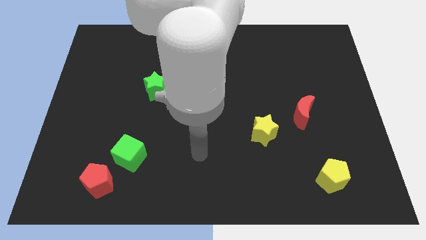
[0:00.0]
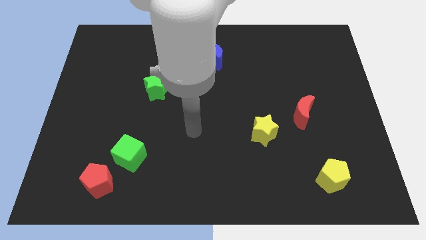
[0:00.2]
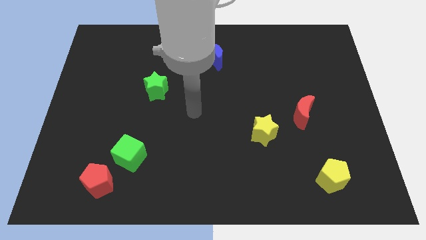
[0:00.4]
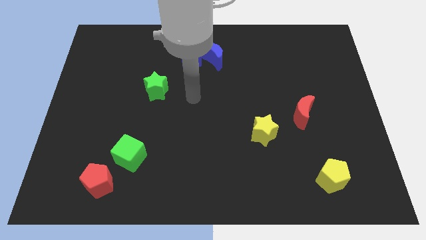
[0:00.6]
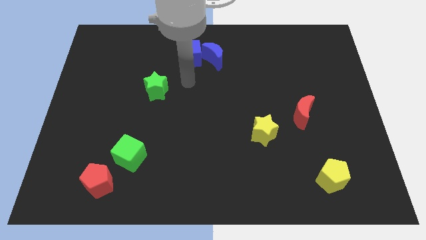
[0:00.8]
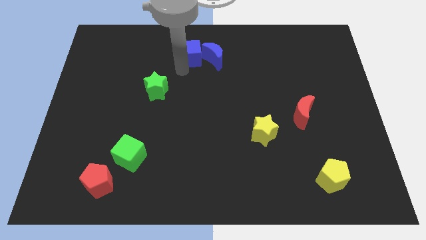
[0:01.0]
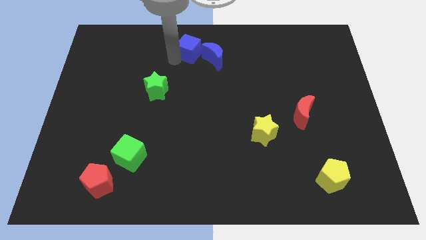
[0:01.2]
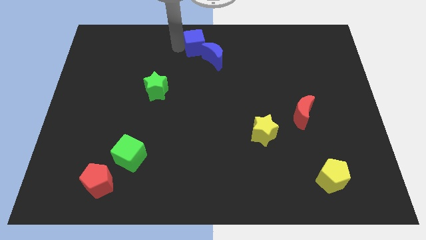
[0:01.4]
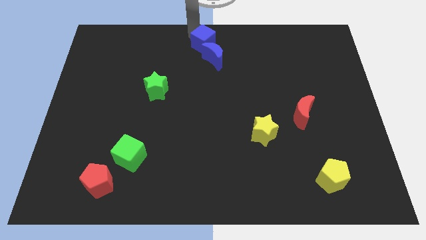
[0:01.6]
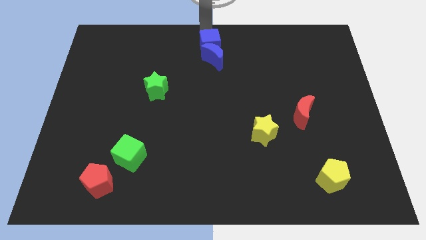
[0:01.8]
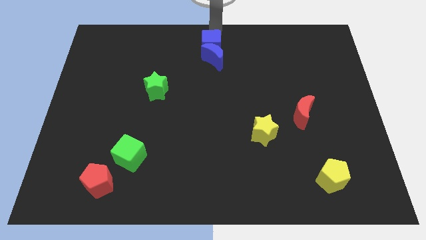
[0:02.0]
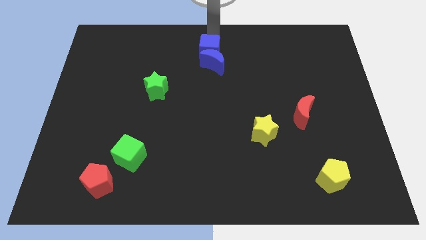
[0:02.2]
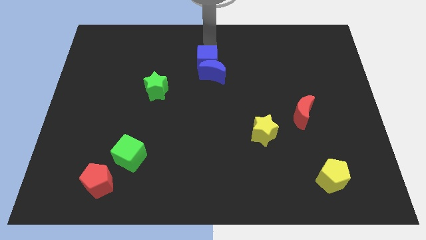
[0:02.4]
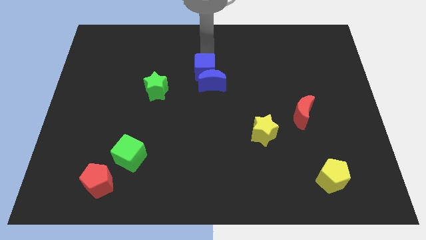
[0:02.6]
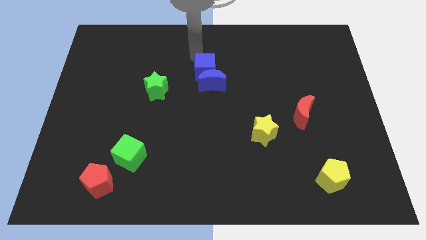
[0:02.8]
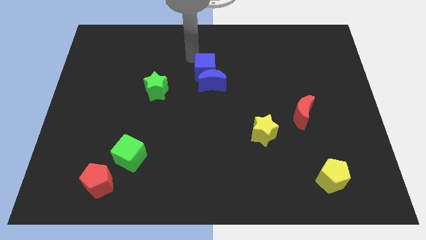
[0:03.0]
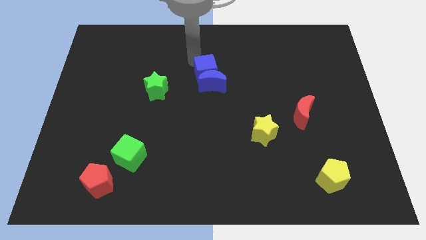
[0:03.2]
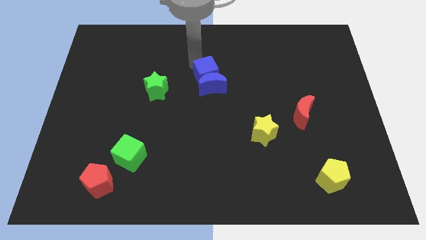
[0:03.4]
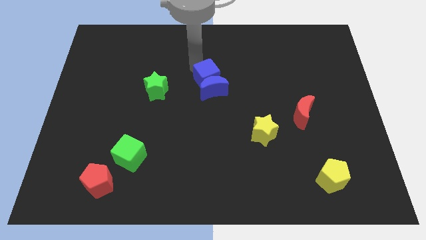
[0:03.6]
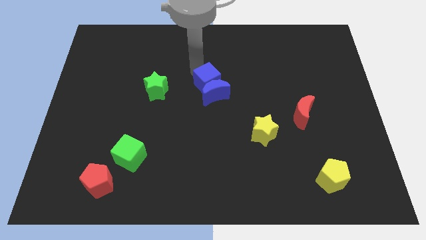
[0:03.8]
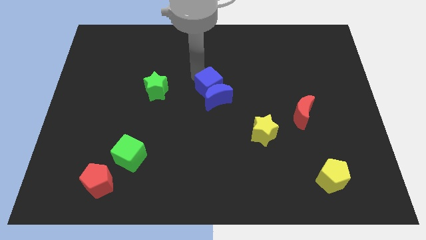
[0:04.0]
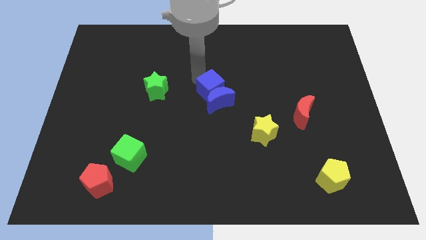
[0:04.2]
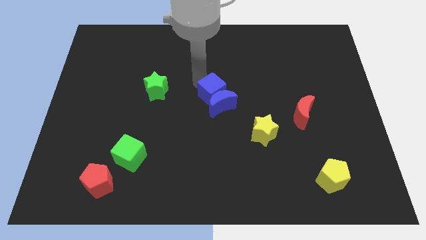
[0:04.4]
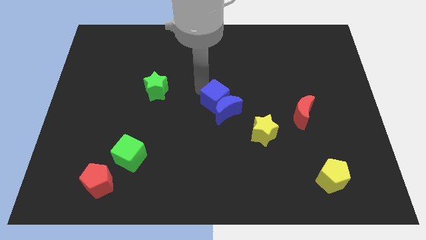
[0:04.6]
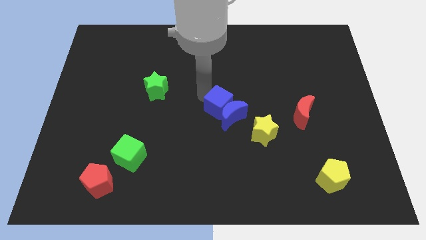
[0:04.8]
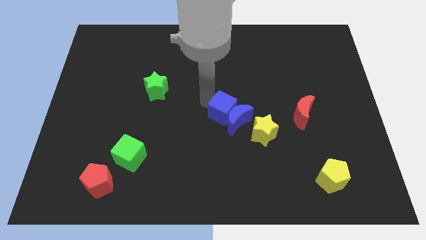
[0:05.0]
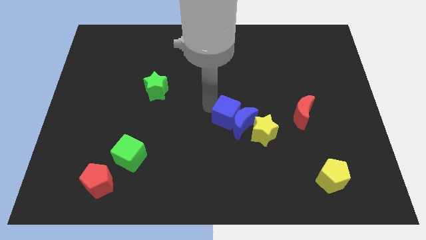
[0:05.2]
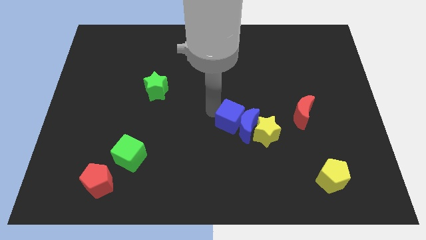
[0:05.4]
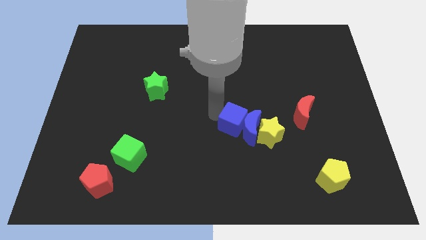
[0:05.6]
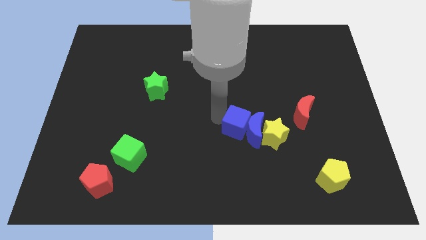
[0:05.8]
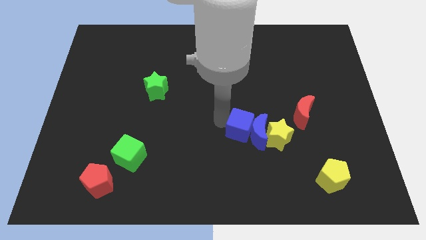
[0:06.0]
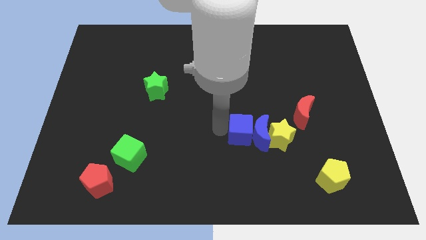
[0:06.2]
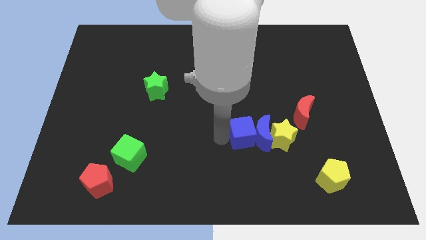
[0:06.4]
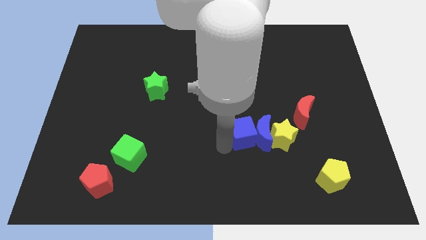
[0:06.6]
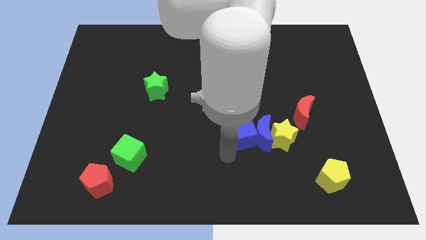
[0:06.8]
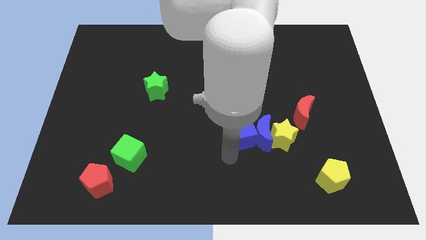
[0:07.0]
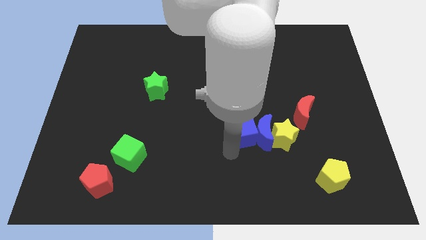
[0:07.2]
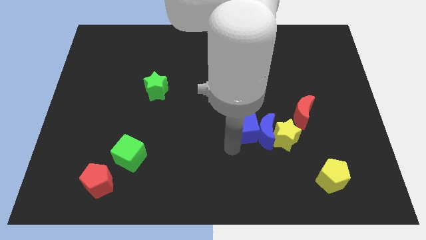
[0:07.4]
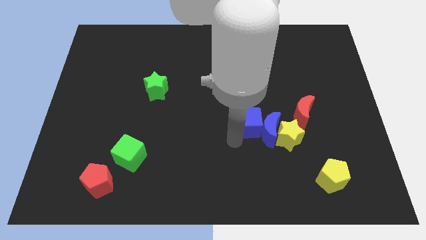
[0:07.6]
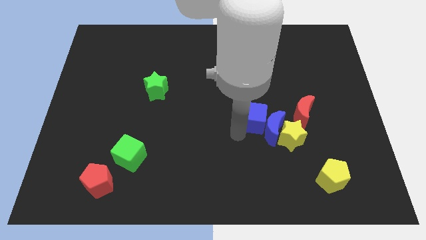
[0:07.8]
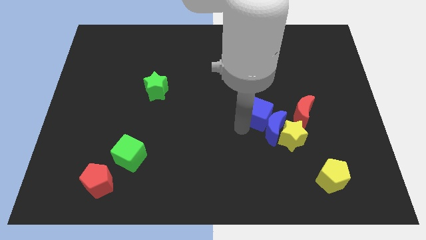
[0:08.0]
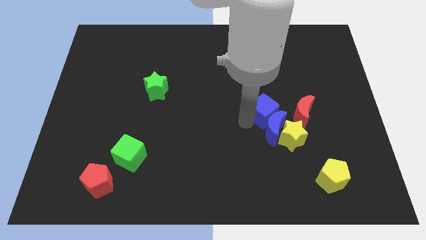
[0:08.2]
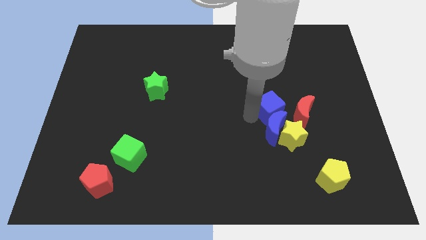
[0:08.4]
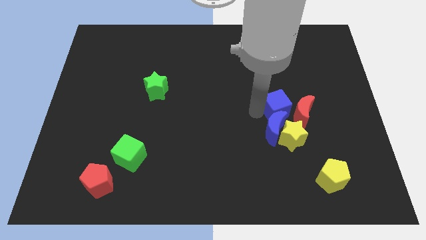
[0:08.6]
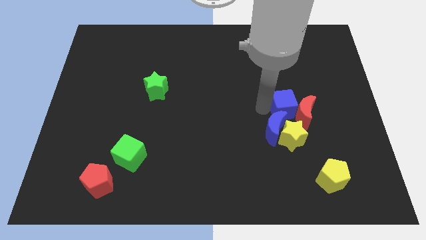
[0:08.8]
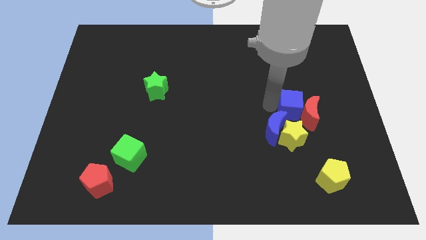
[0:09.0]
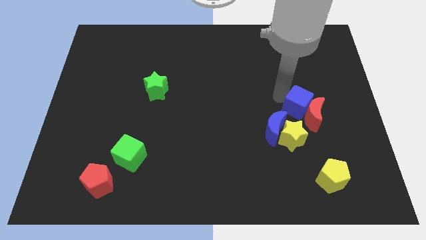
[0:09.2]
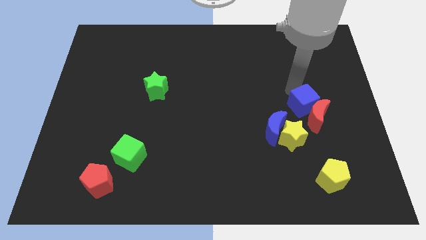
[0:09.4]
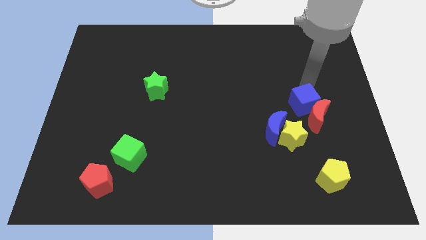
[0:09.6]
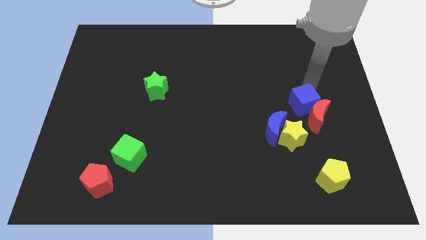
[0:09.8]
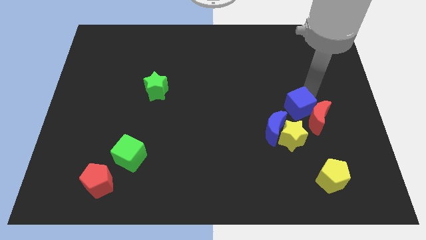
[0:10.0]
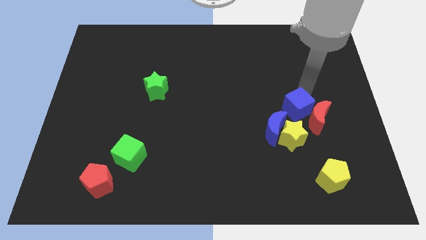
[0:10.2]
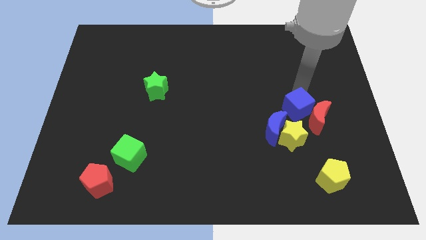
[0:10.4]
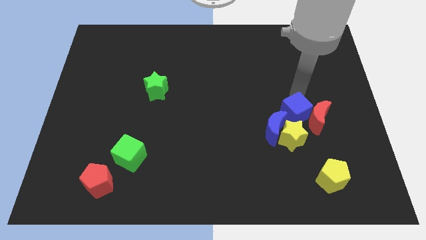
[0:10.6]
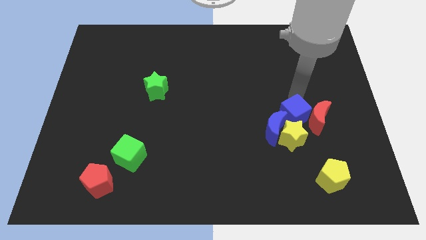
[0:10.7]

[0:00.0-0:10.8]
move the blue cube to the yellow star

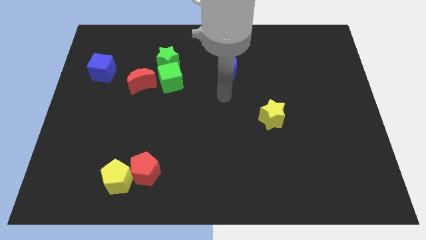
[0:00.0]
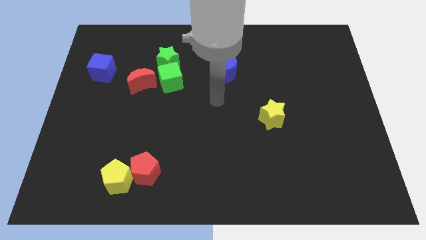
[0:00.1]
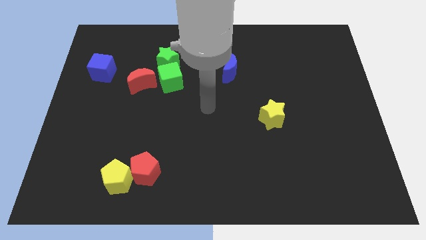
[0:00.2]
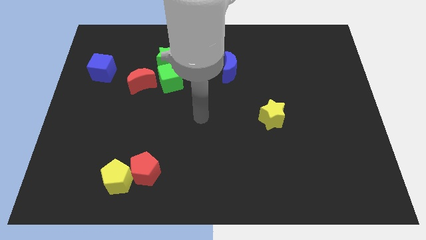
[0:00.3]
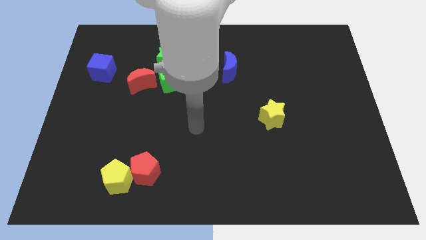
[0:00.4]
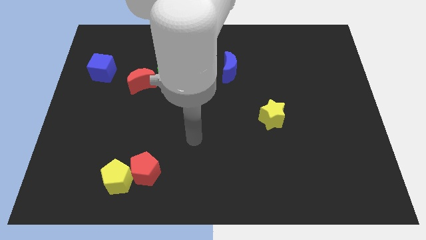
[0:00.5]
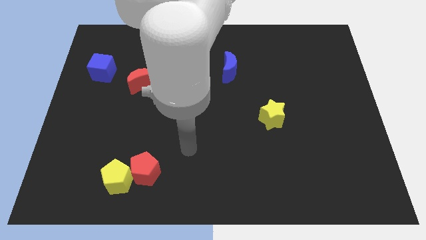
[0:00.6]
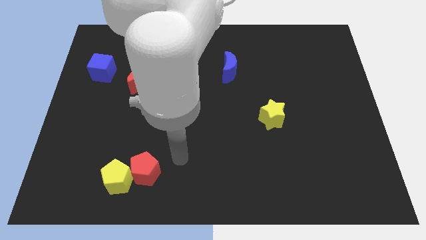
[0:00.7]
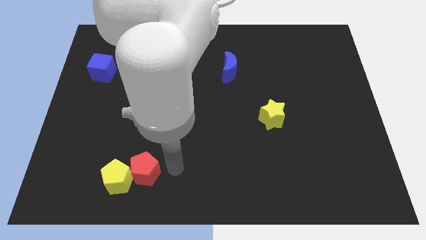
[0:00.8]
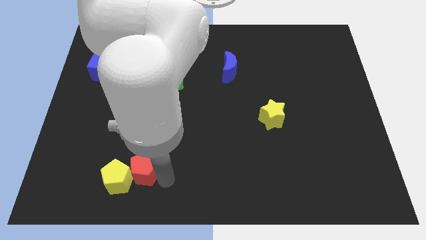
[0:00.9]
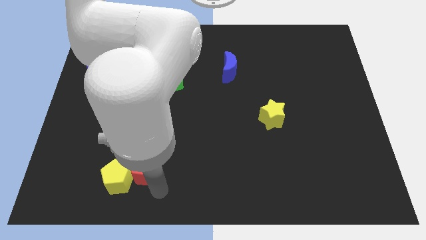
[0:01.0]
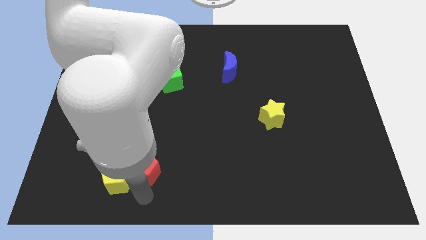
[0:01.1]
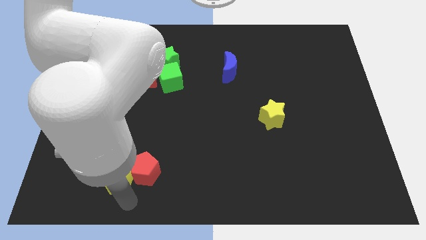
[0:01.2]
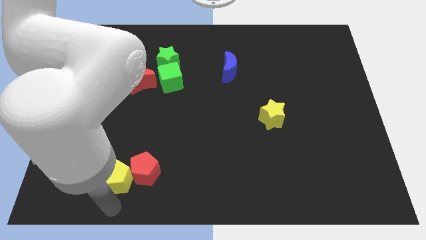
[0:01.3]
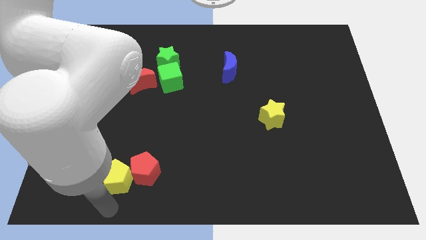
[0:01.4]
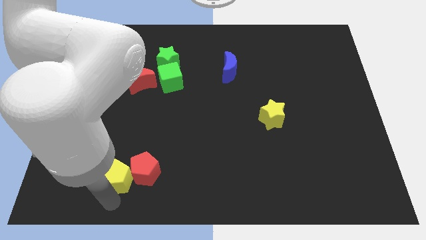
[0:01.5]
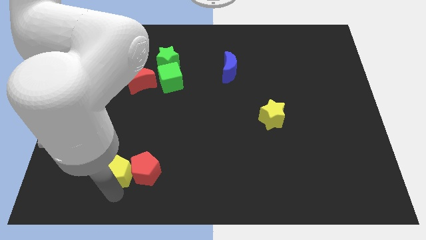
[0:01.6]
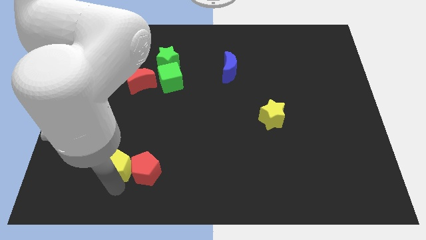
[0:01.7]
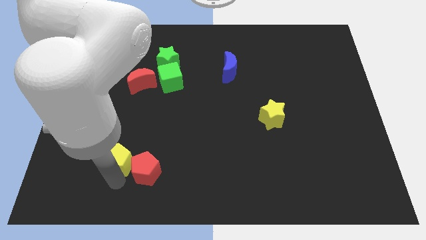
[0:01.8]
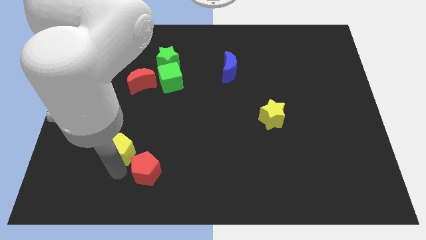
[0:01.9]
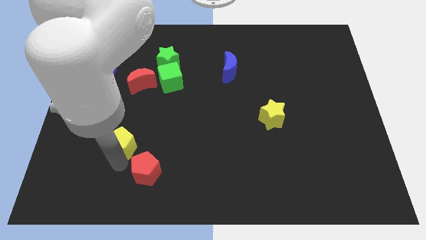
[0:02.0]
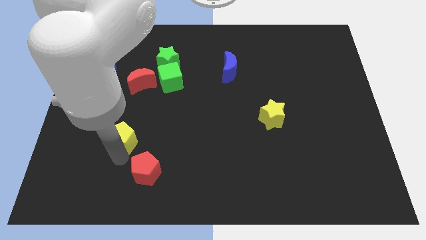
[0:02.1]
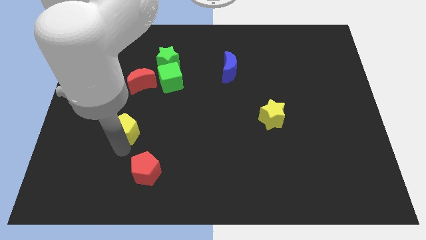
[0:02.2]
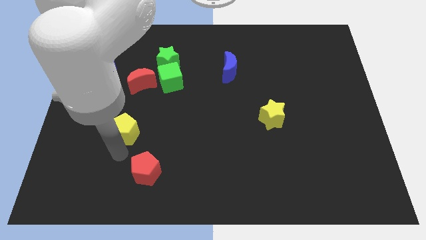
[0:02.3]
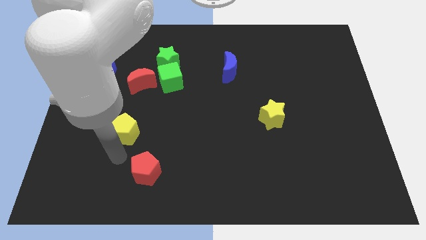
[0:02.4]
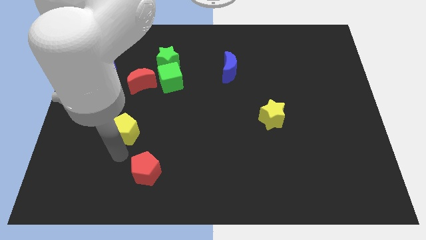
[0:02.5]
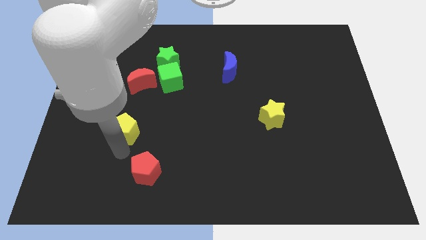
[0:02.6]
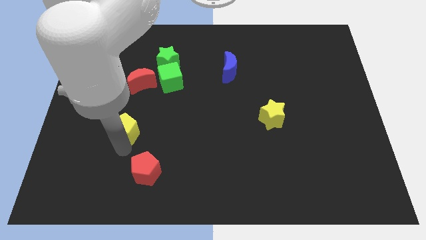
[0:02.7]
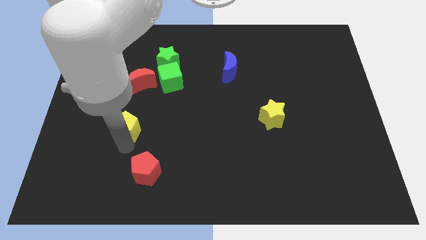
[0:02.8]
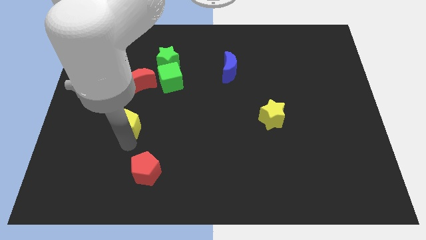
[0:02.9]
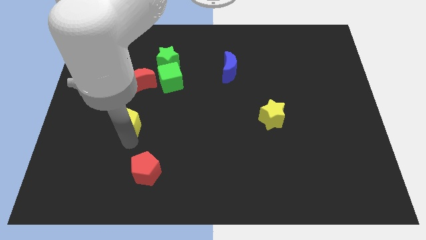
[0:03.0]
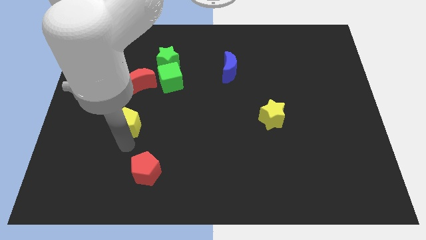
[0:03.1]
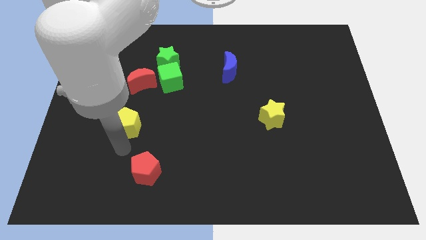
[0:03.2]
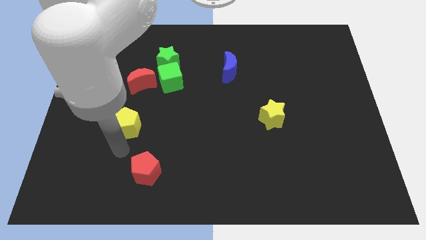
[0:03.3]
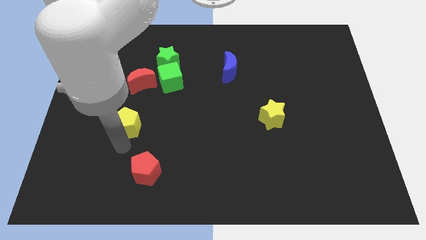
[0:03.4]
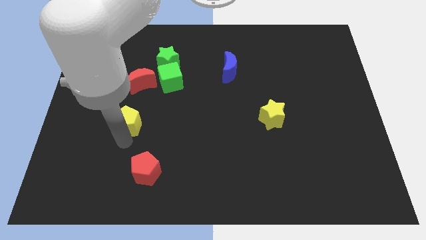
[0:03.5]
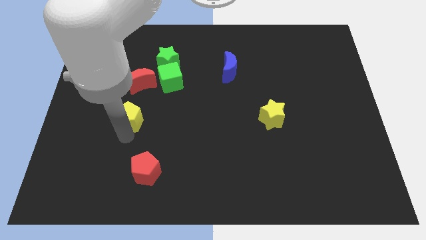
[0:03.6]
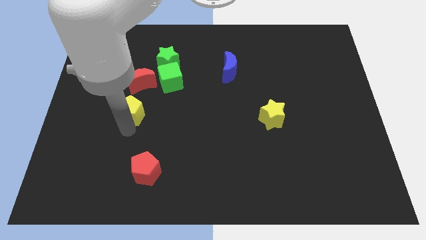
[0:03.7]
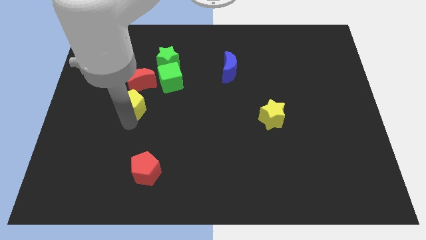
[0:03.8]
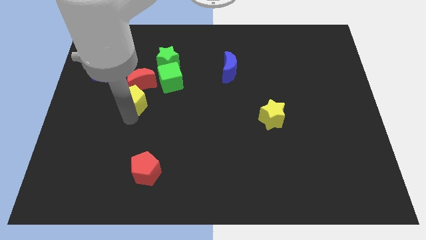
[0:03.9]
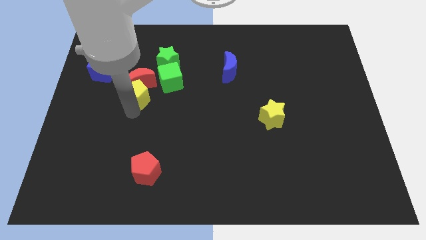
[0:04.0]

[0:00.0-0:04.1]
put the yellow pentagon towards the red moon
